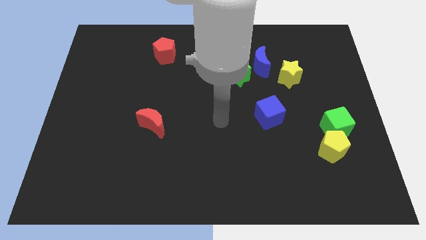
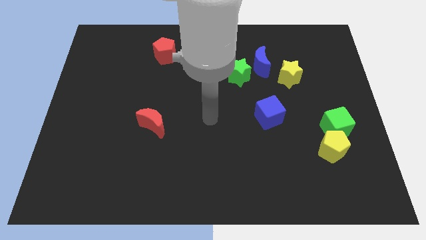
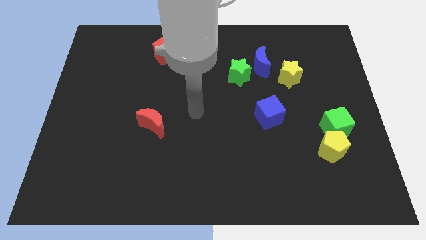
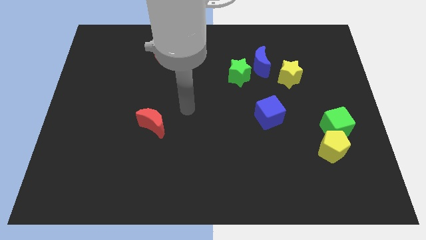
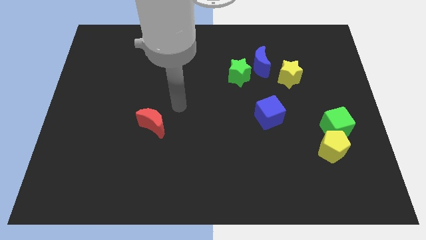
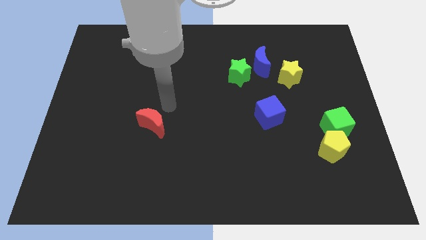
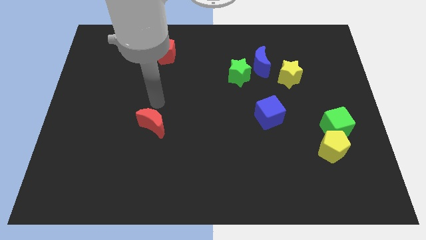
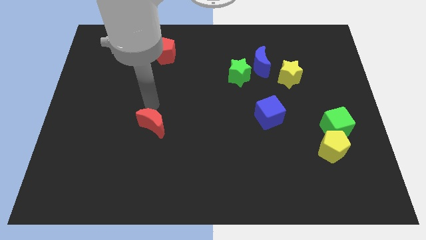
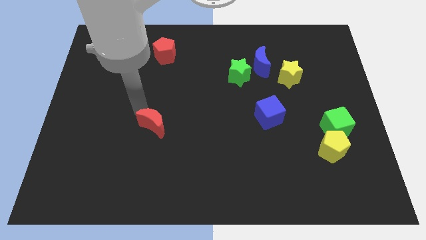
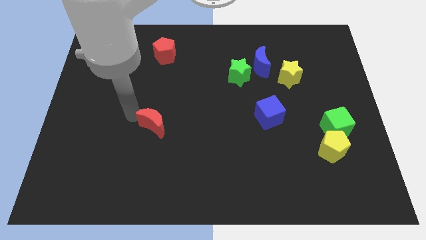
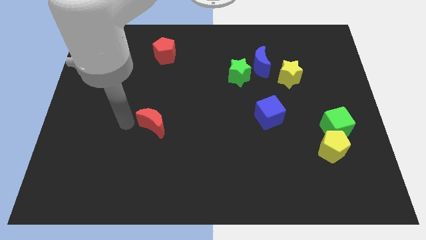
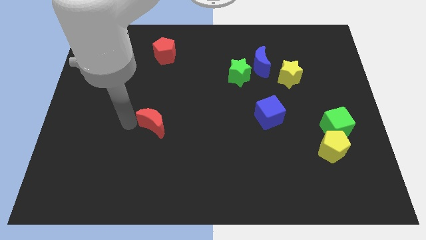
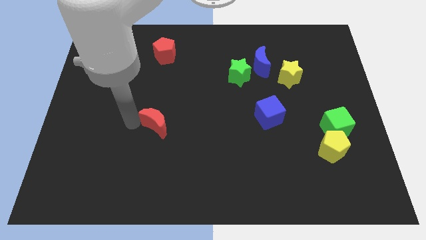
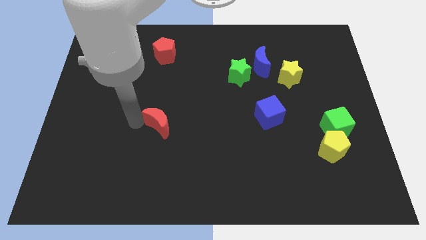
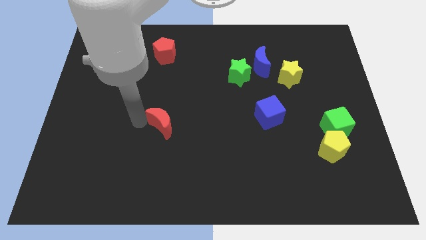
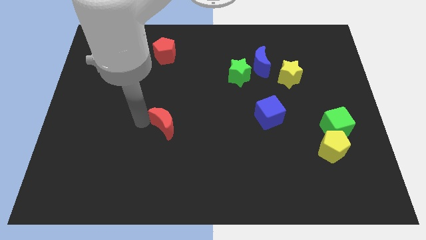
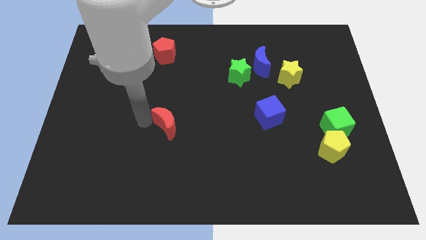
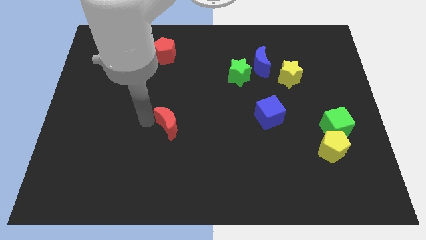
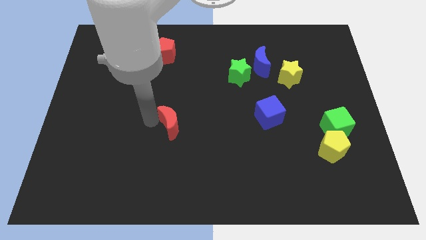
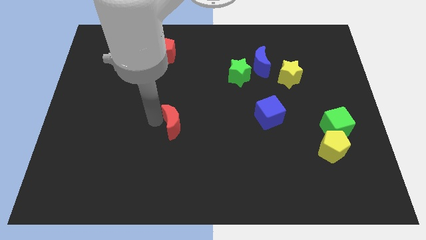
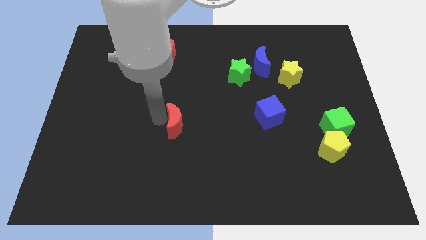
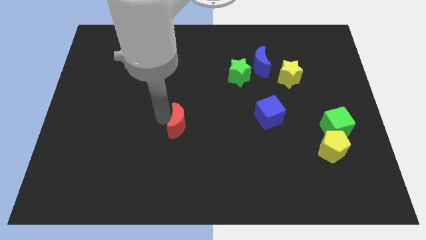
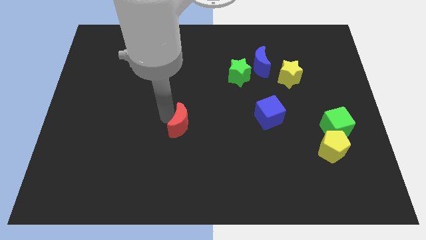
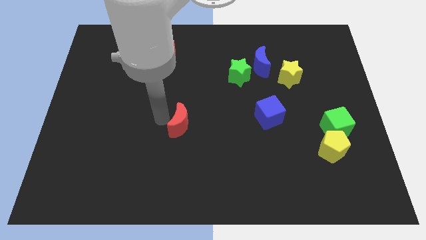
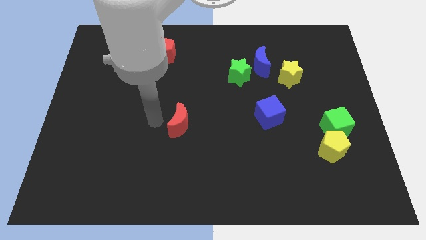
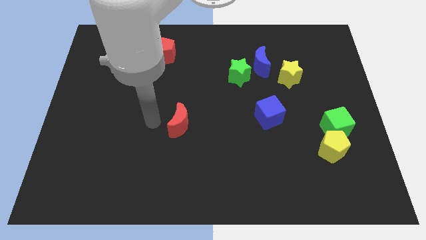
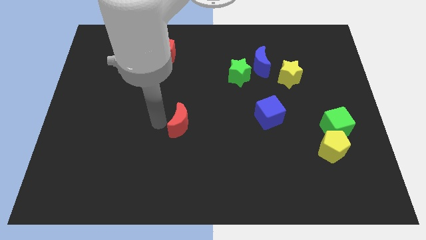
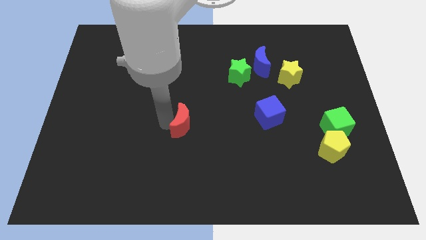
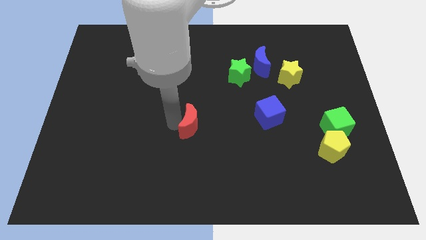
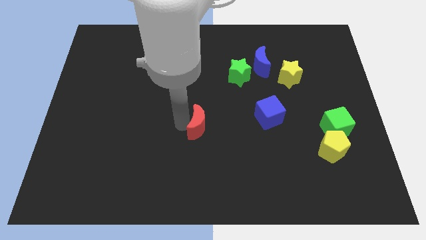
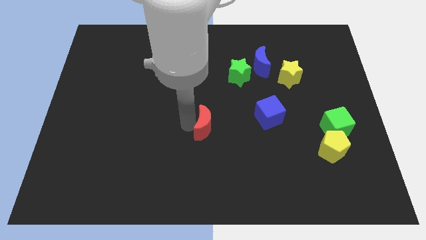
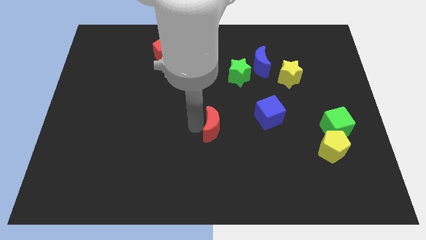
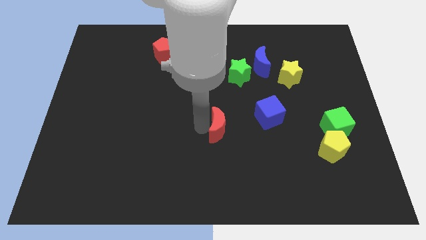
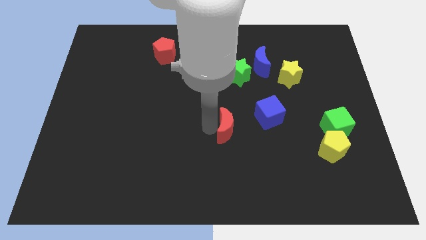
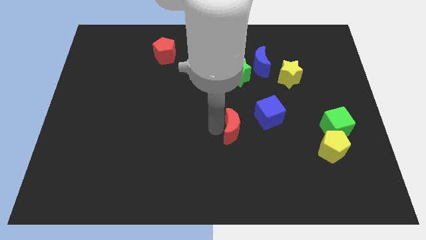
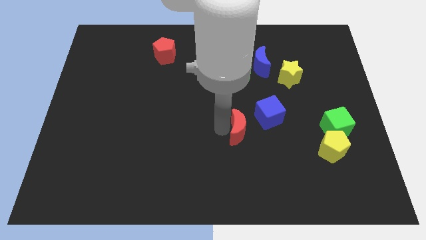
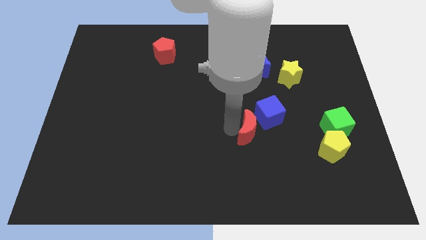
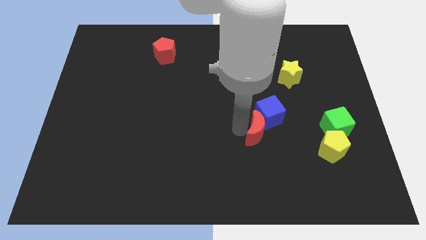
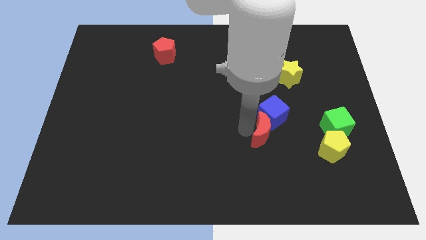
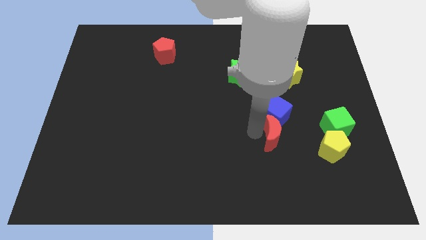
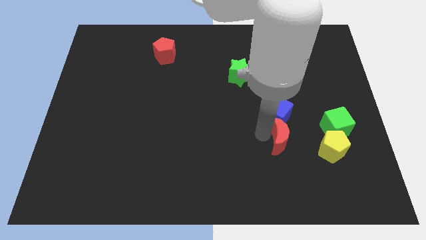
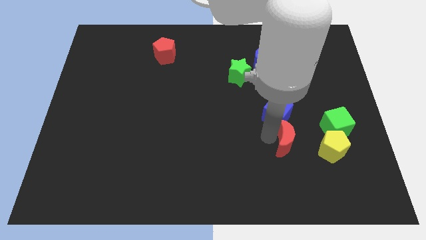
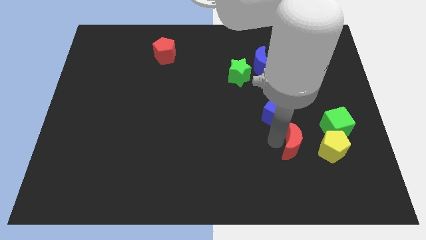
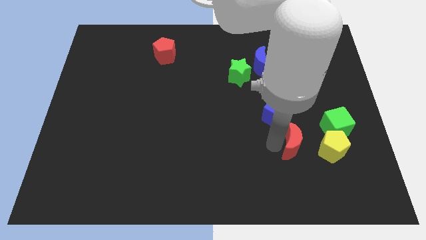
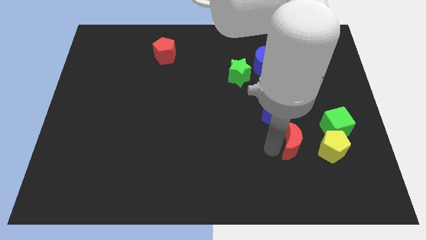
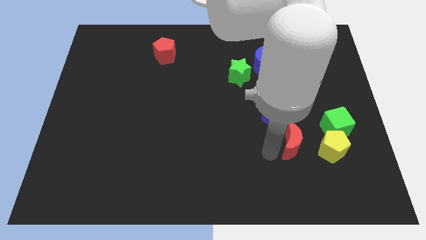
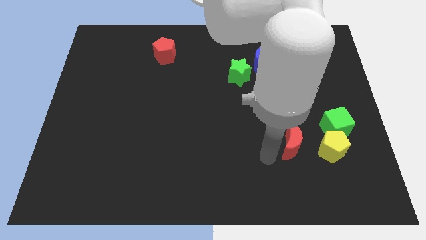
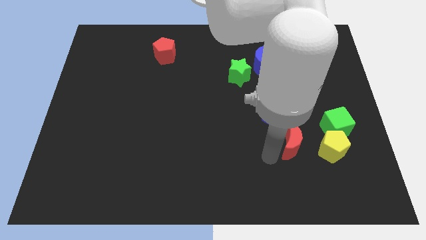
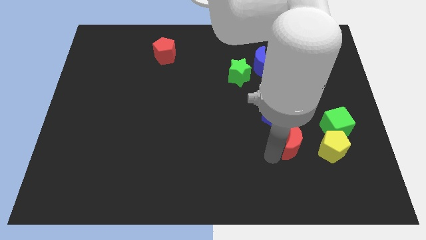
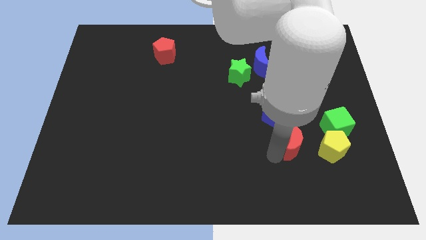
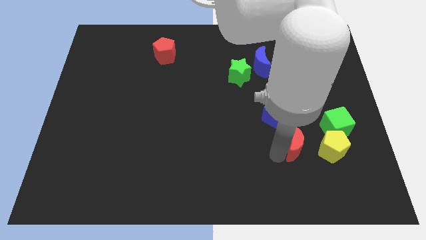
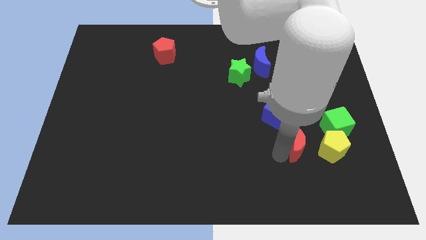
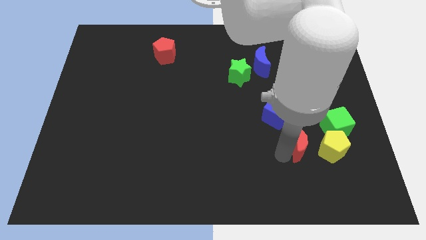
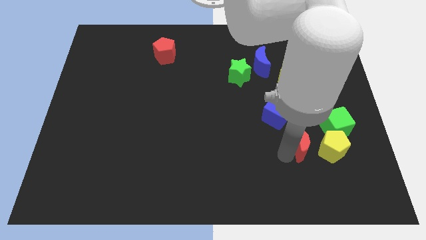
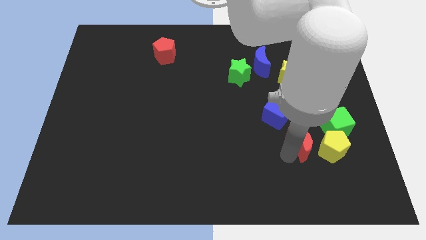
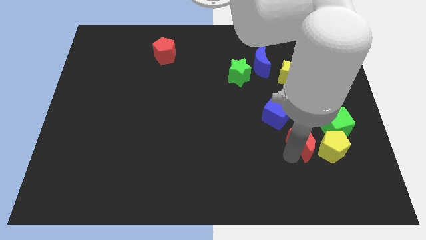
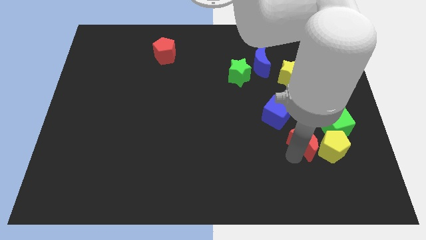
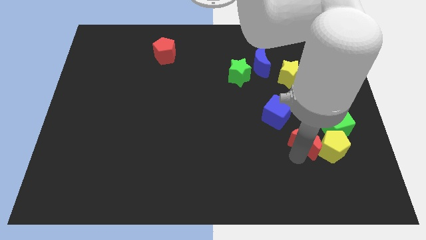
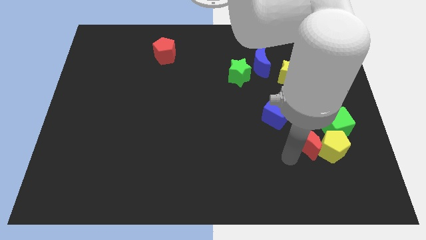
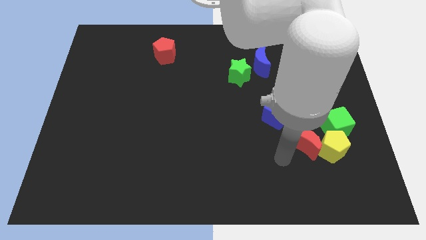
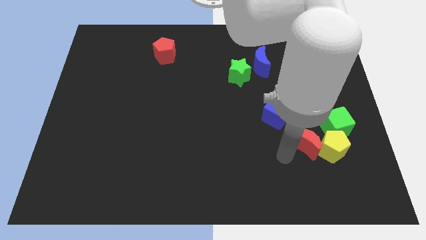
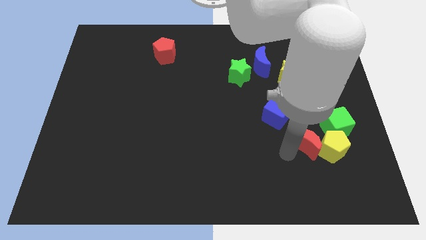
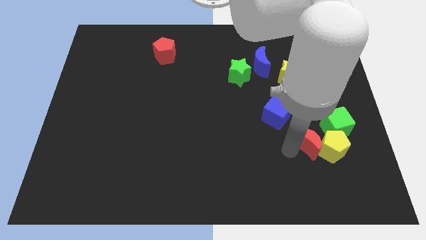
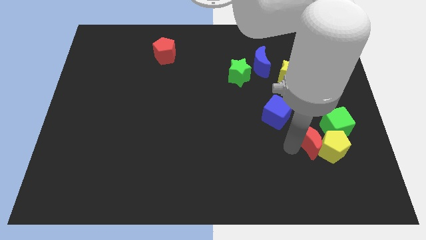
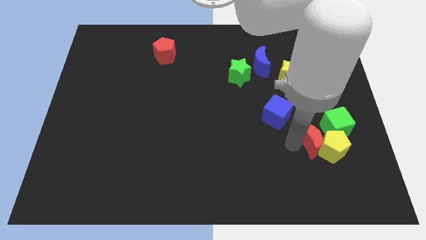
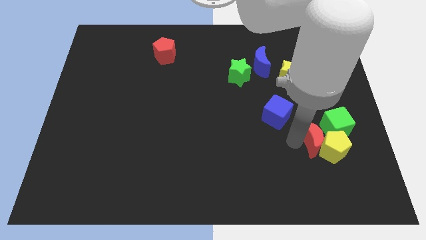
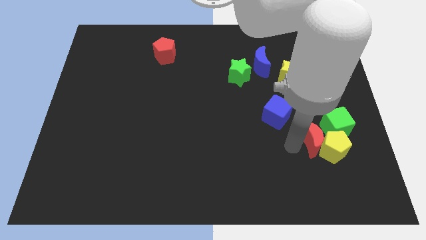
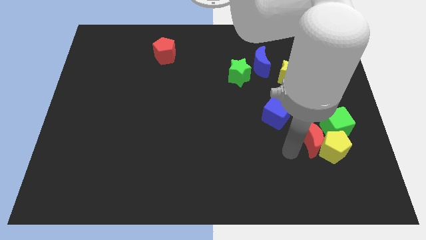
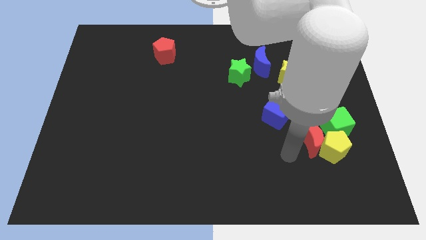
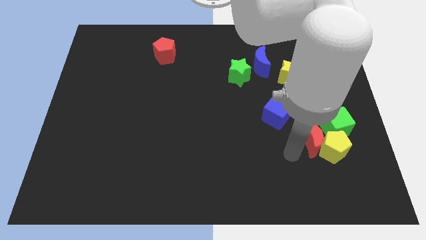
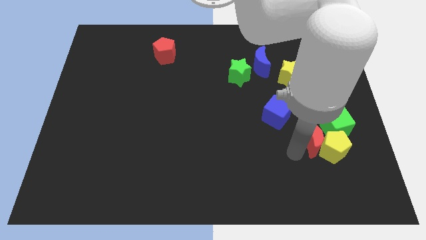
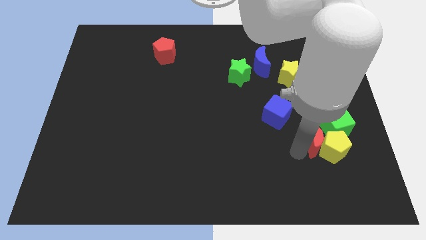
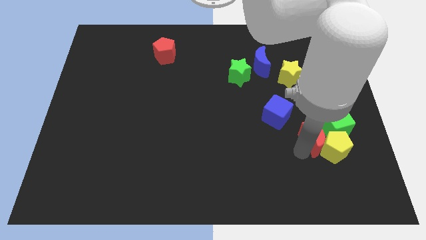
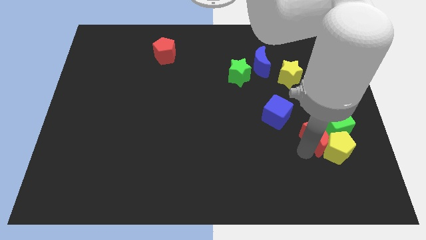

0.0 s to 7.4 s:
move the red moon towards the green cube
